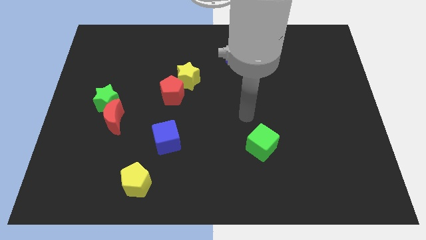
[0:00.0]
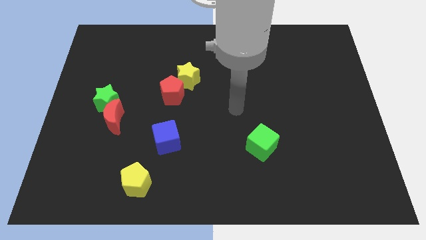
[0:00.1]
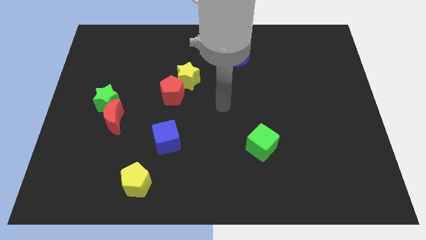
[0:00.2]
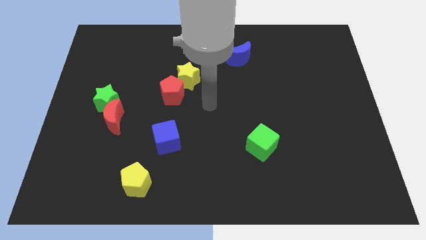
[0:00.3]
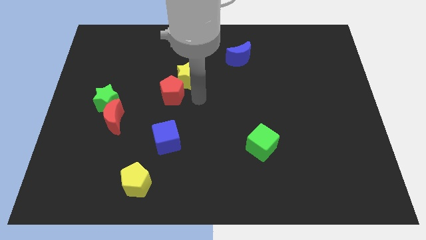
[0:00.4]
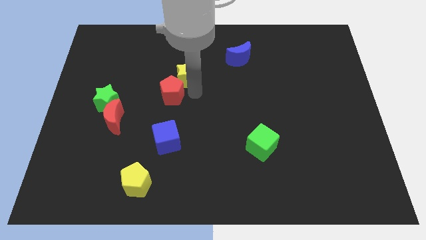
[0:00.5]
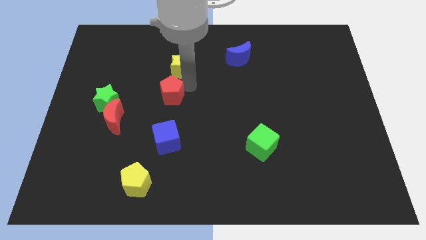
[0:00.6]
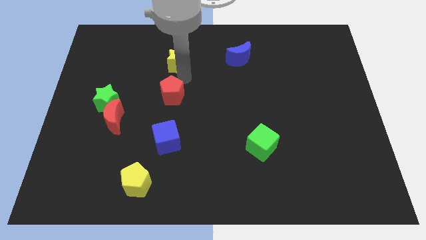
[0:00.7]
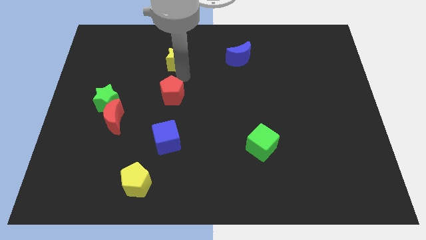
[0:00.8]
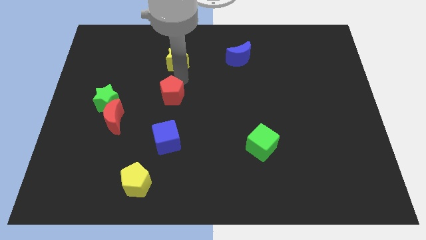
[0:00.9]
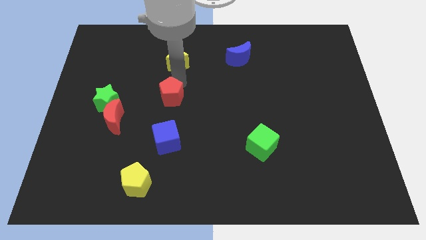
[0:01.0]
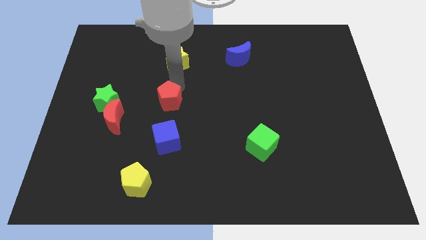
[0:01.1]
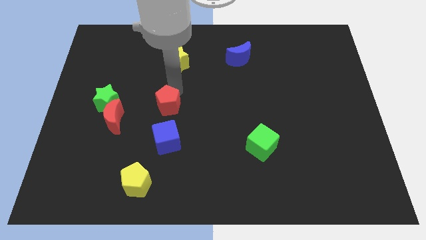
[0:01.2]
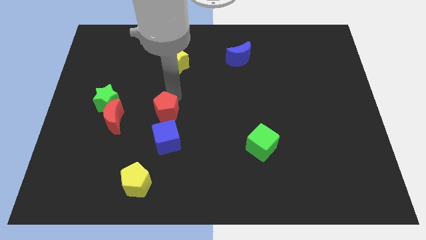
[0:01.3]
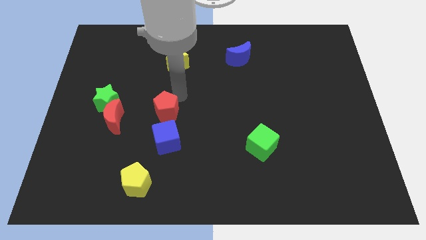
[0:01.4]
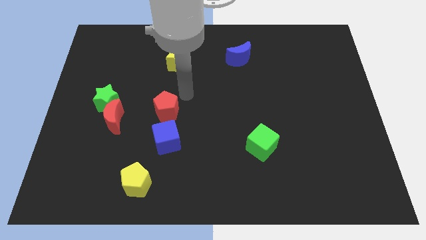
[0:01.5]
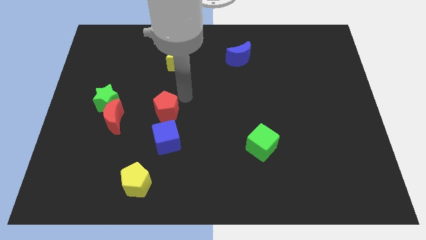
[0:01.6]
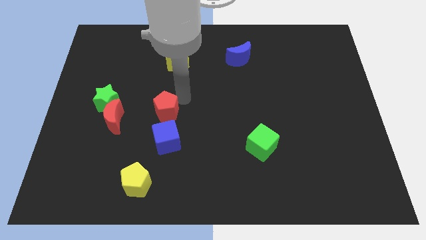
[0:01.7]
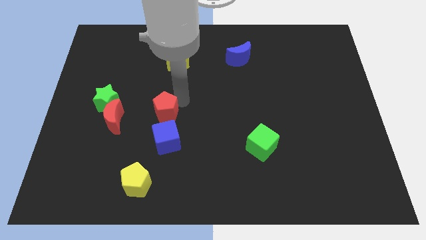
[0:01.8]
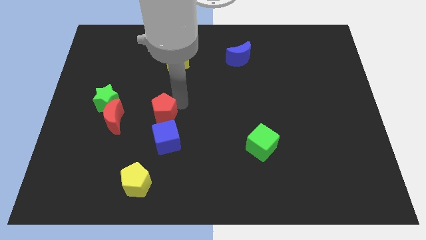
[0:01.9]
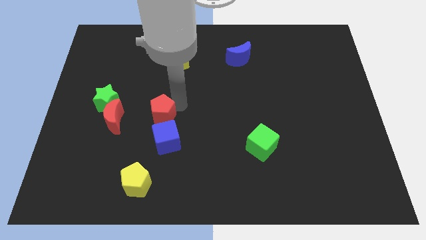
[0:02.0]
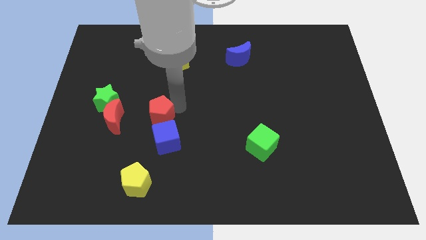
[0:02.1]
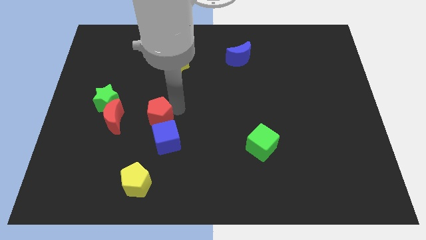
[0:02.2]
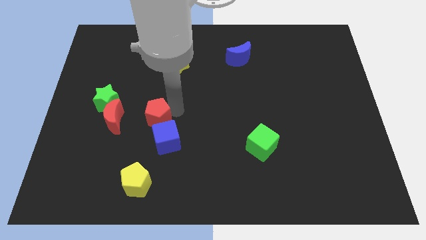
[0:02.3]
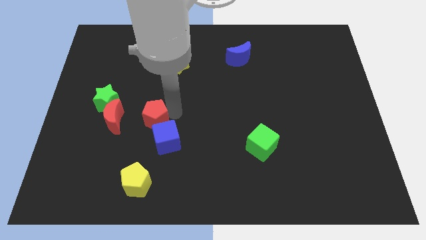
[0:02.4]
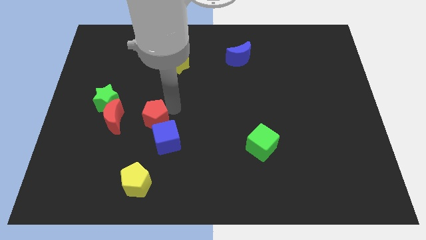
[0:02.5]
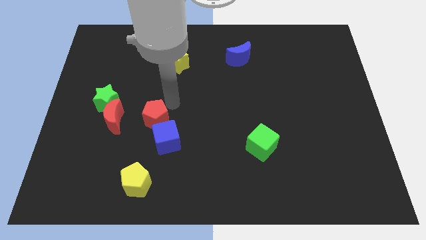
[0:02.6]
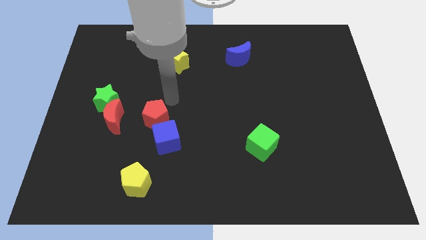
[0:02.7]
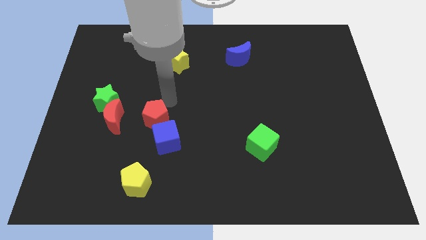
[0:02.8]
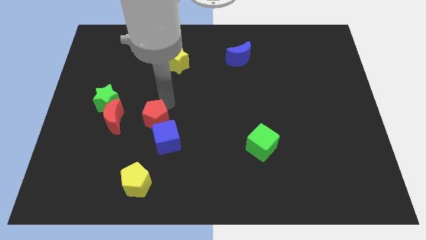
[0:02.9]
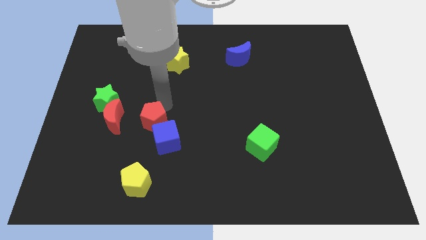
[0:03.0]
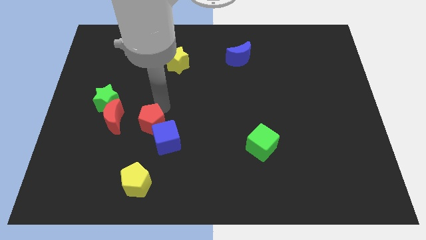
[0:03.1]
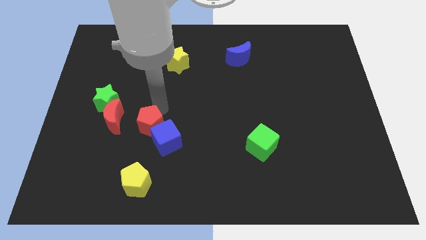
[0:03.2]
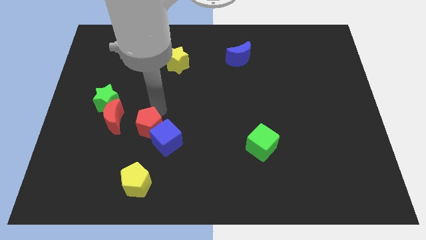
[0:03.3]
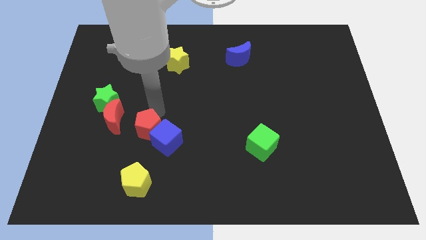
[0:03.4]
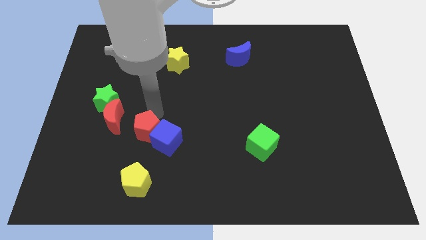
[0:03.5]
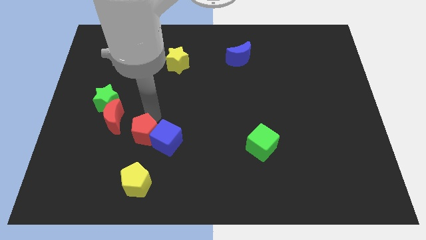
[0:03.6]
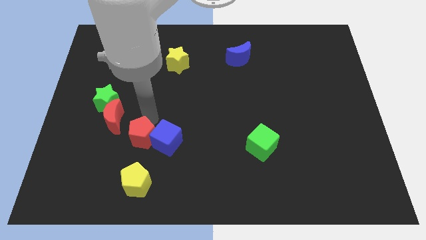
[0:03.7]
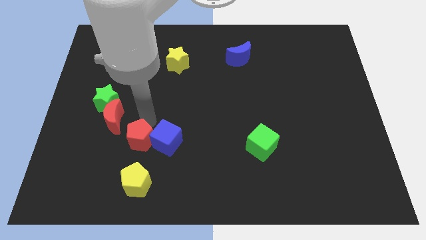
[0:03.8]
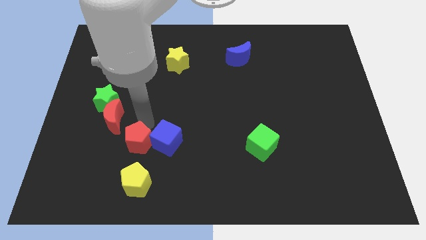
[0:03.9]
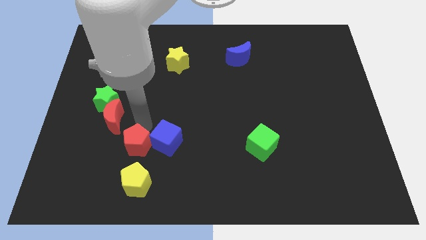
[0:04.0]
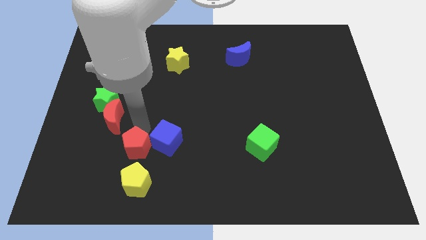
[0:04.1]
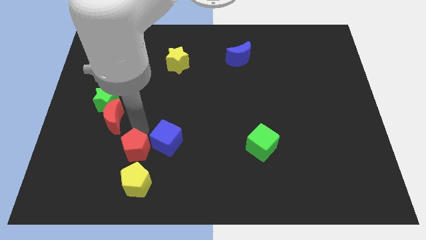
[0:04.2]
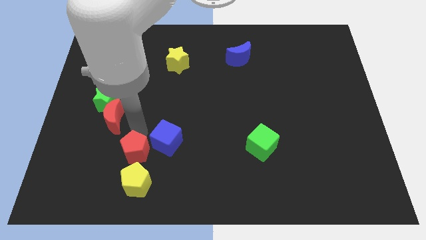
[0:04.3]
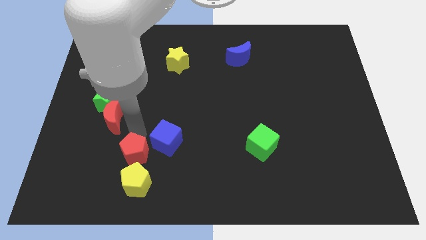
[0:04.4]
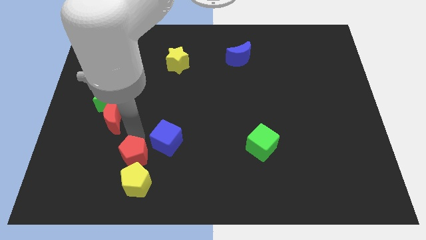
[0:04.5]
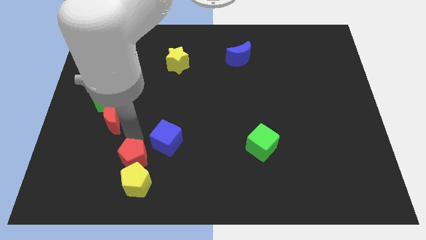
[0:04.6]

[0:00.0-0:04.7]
push the red pentagon next to the yellow pentagon

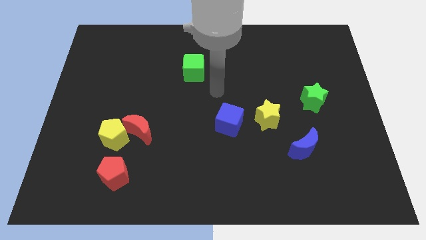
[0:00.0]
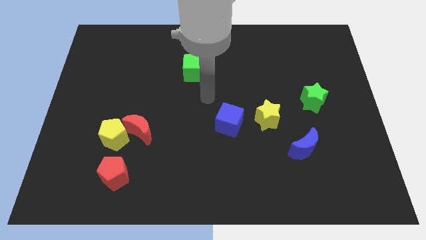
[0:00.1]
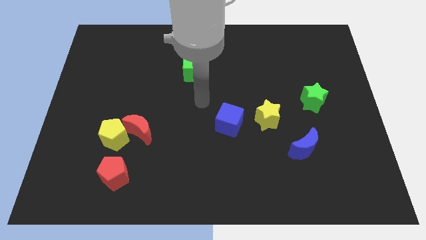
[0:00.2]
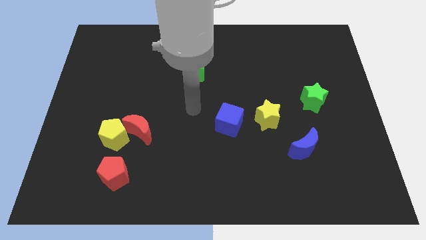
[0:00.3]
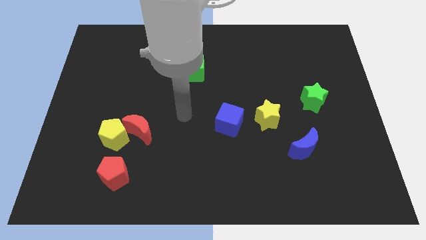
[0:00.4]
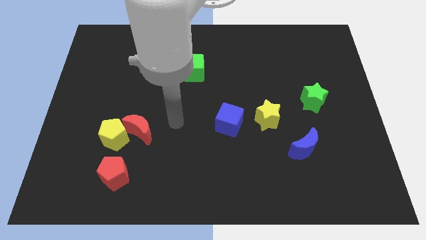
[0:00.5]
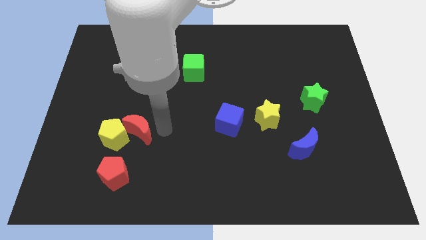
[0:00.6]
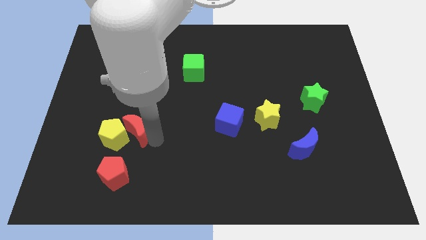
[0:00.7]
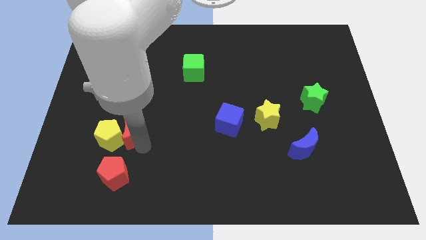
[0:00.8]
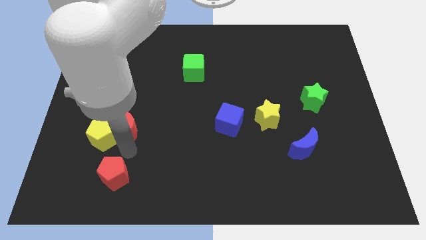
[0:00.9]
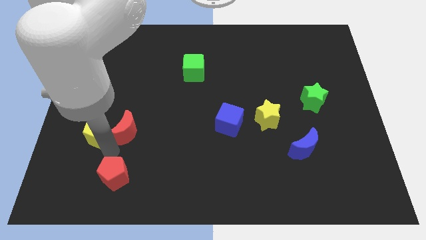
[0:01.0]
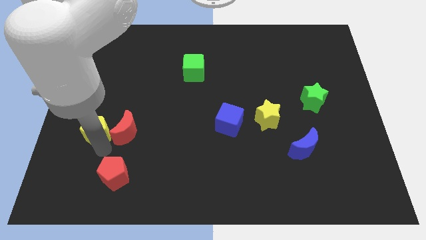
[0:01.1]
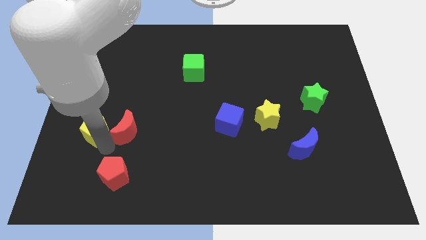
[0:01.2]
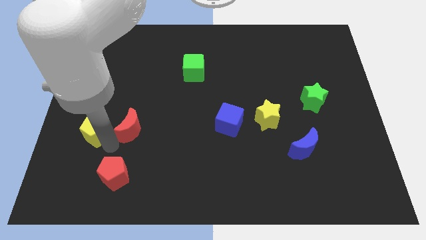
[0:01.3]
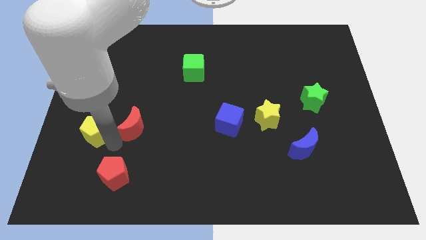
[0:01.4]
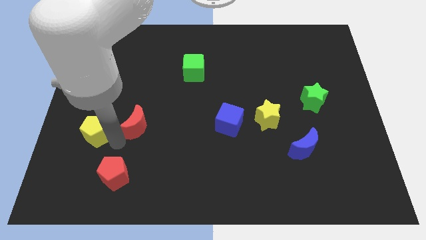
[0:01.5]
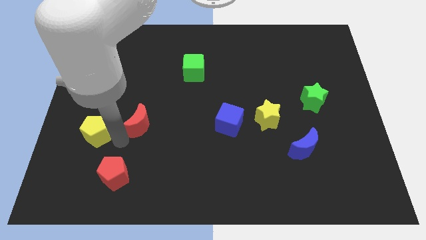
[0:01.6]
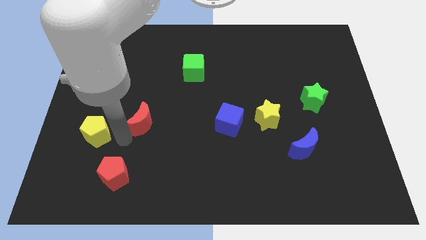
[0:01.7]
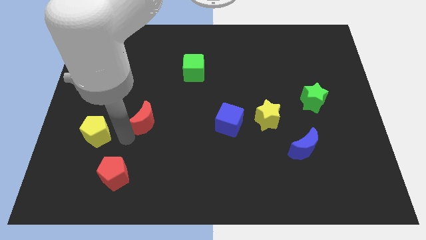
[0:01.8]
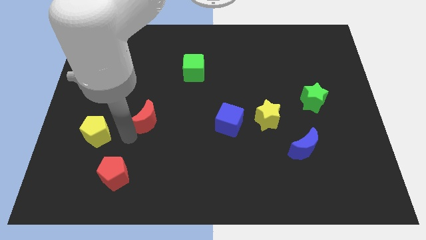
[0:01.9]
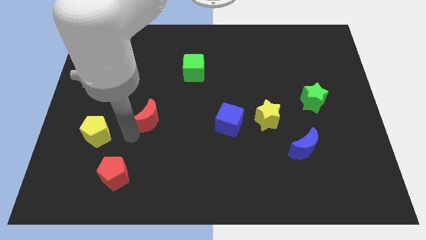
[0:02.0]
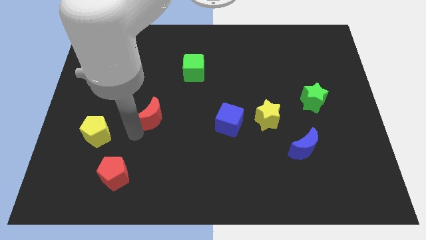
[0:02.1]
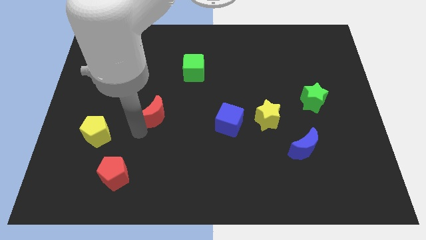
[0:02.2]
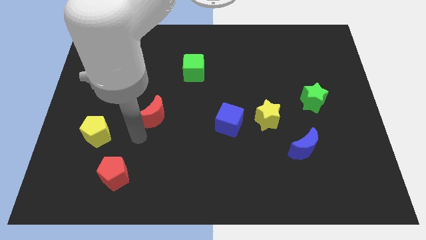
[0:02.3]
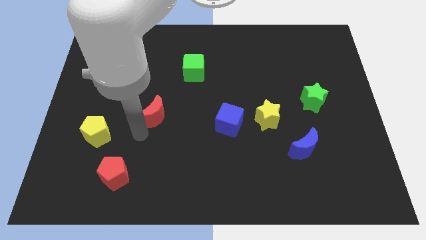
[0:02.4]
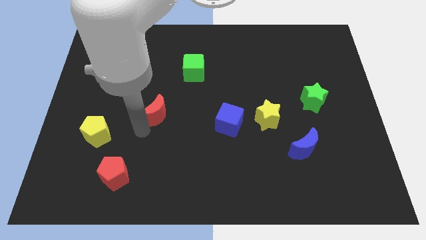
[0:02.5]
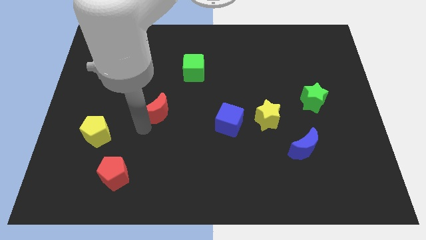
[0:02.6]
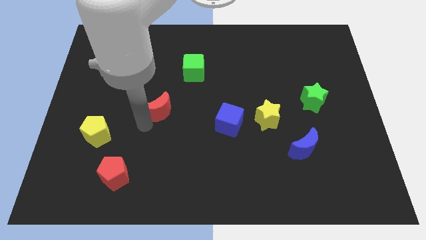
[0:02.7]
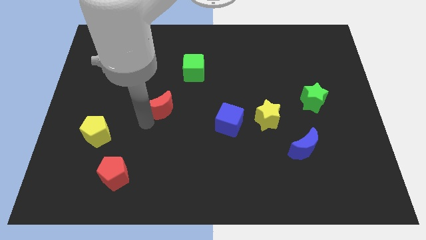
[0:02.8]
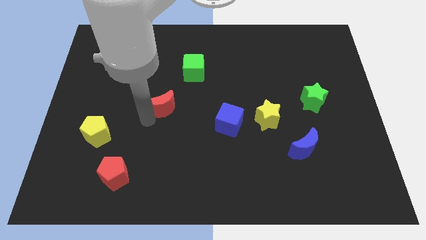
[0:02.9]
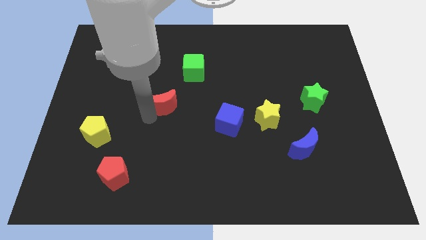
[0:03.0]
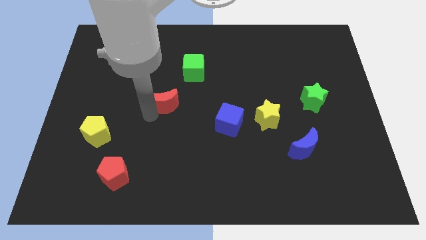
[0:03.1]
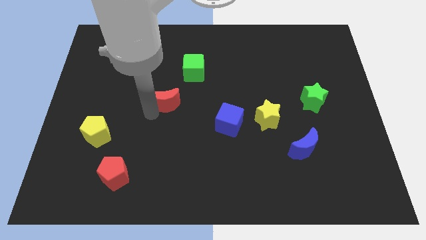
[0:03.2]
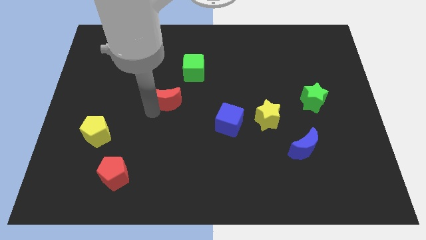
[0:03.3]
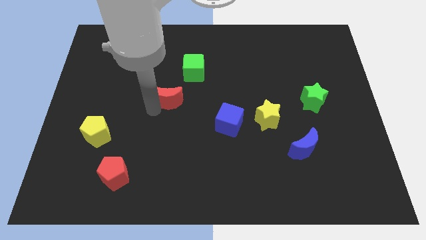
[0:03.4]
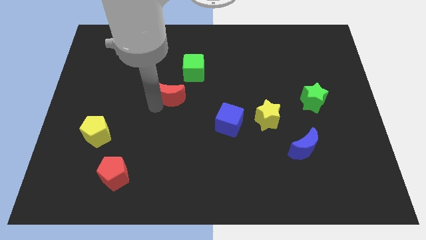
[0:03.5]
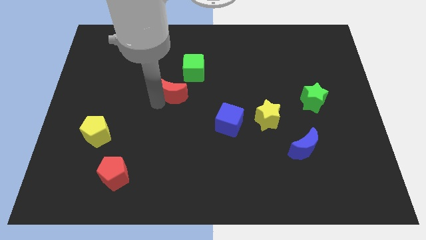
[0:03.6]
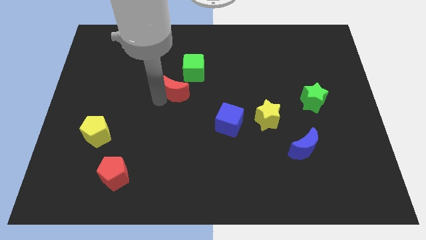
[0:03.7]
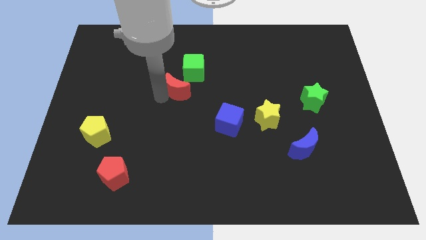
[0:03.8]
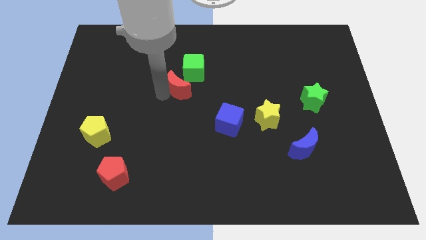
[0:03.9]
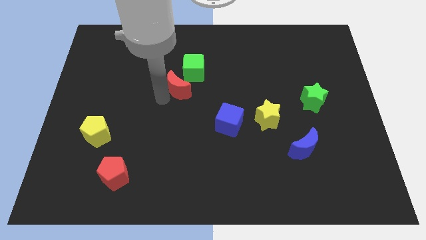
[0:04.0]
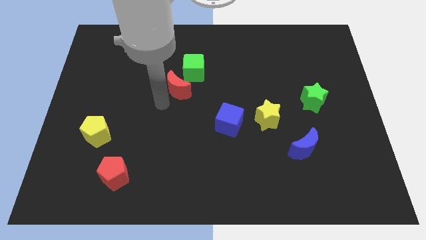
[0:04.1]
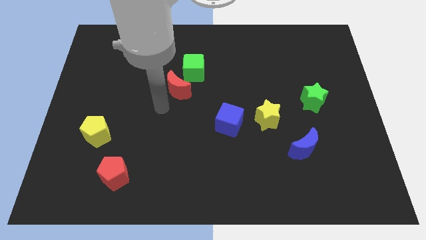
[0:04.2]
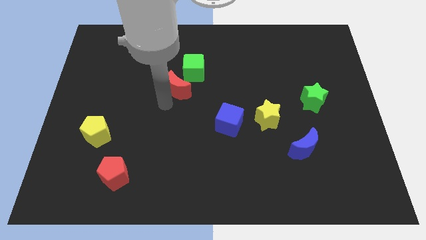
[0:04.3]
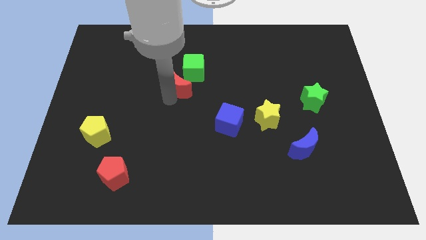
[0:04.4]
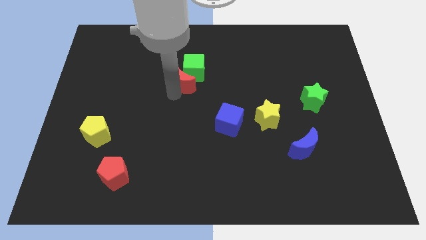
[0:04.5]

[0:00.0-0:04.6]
put the red moon next to the green cube
